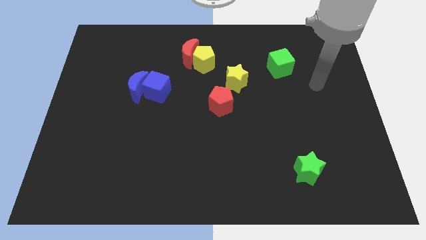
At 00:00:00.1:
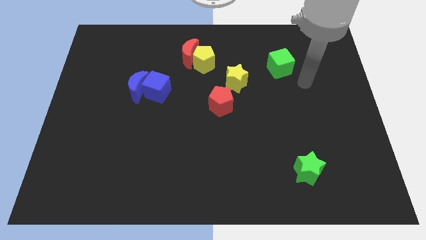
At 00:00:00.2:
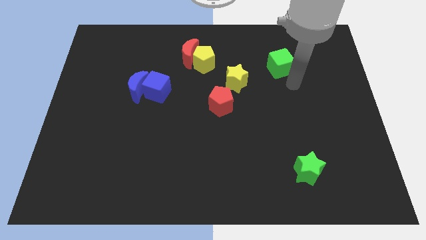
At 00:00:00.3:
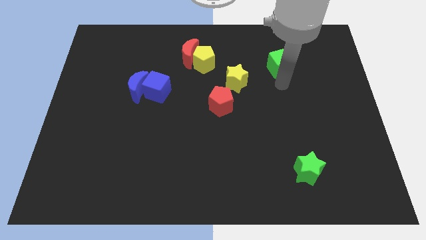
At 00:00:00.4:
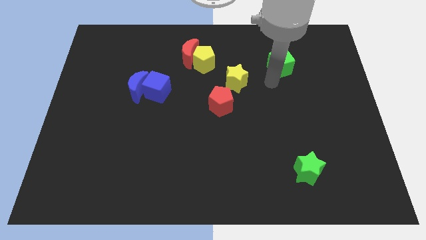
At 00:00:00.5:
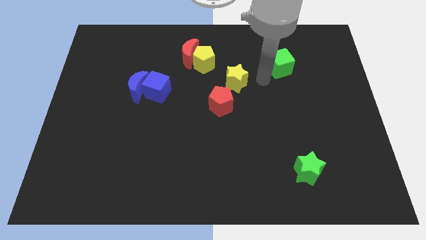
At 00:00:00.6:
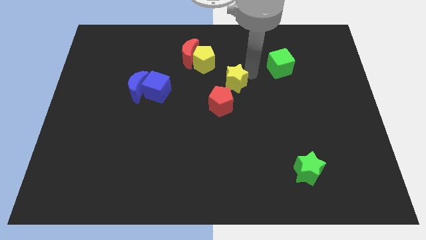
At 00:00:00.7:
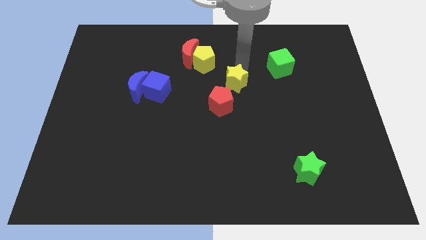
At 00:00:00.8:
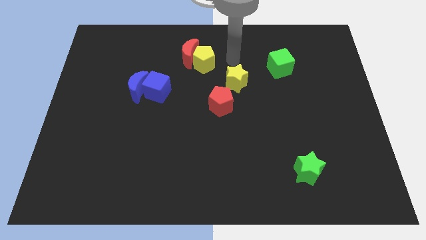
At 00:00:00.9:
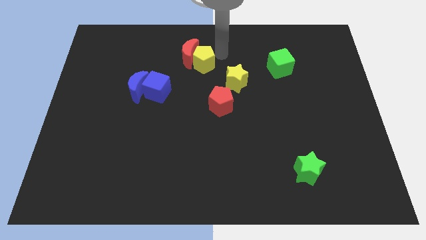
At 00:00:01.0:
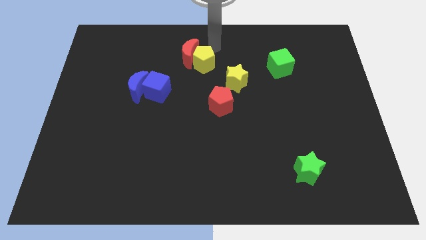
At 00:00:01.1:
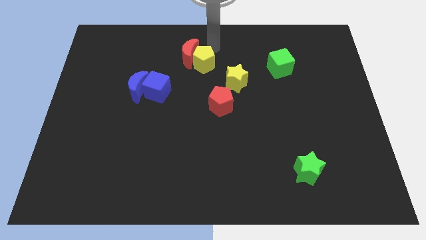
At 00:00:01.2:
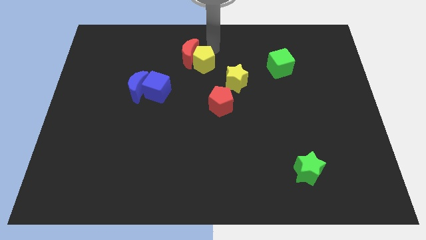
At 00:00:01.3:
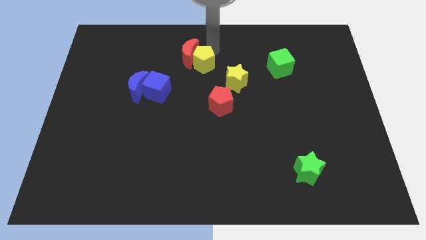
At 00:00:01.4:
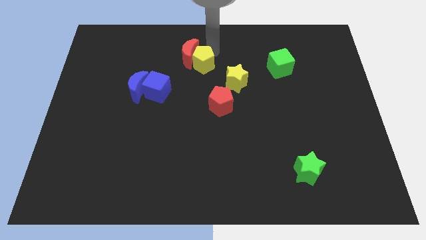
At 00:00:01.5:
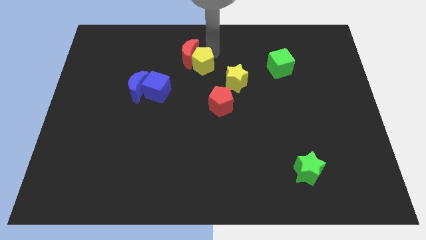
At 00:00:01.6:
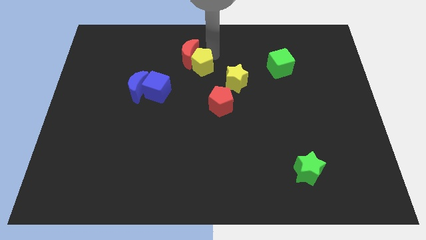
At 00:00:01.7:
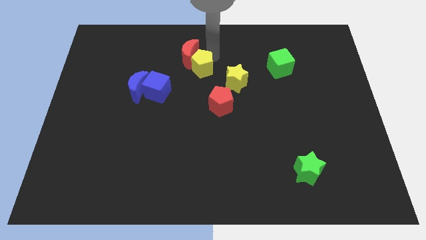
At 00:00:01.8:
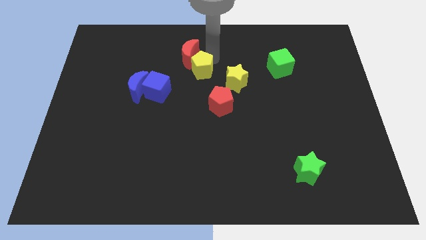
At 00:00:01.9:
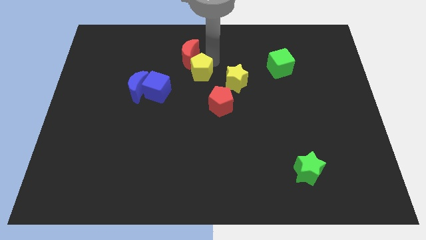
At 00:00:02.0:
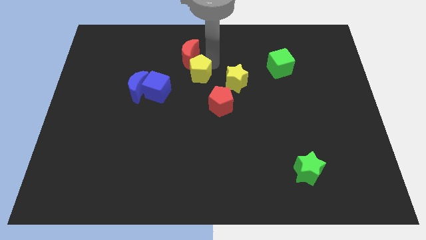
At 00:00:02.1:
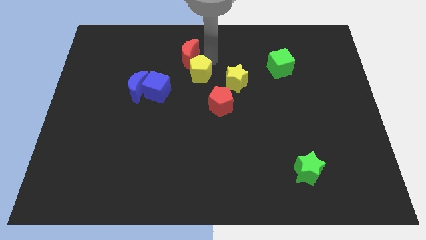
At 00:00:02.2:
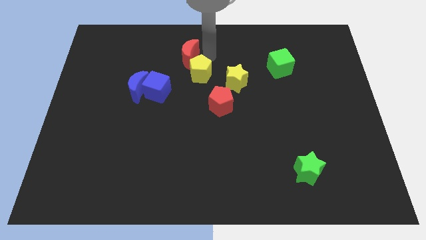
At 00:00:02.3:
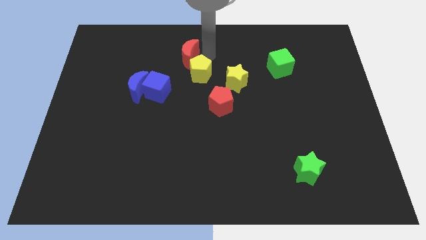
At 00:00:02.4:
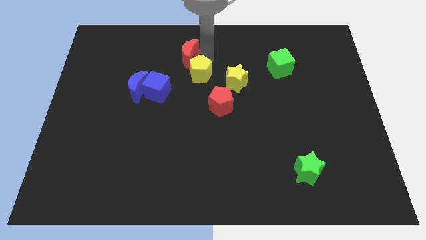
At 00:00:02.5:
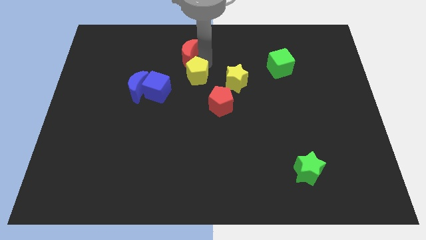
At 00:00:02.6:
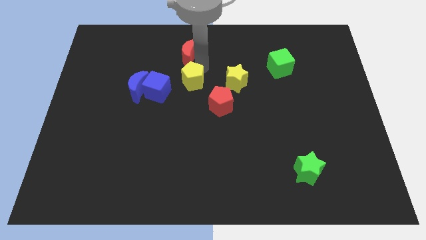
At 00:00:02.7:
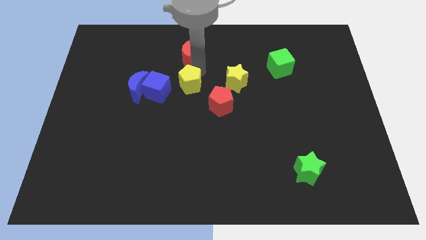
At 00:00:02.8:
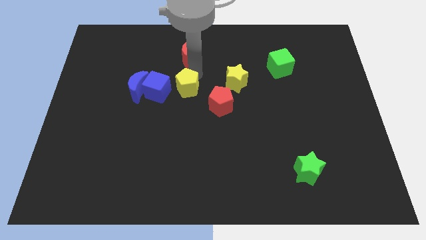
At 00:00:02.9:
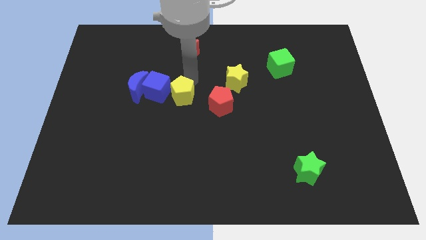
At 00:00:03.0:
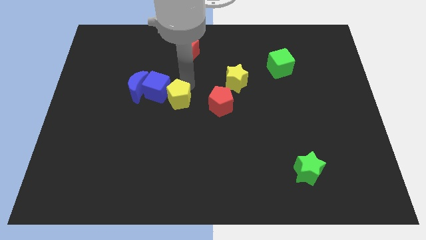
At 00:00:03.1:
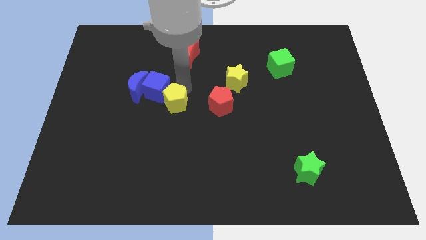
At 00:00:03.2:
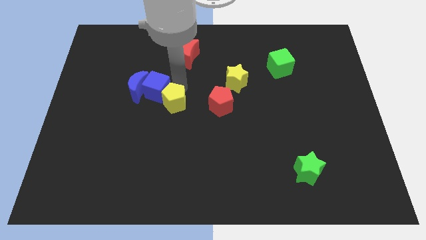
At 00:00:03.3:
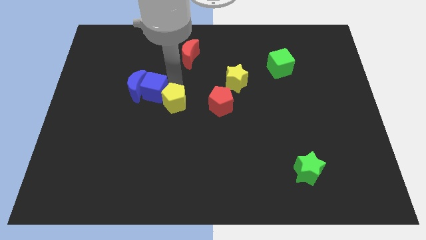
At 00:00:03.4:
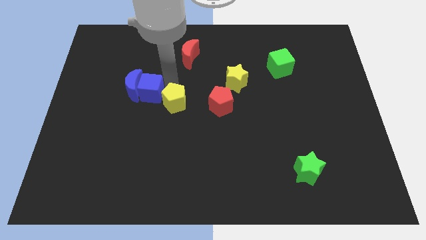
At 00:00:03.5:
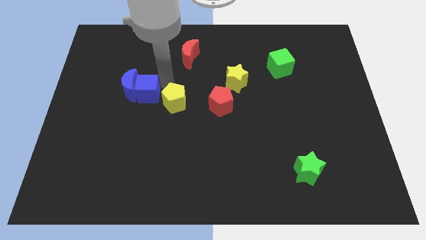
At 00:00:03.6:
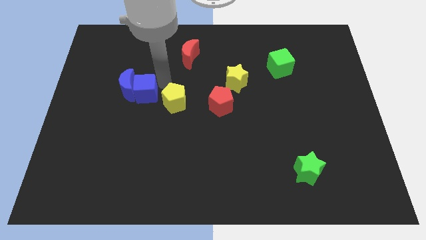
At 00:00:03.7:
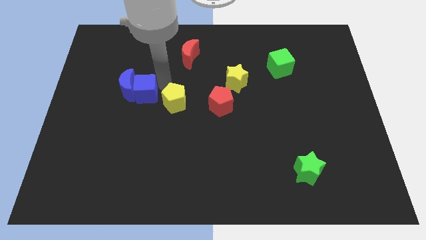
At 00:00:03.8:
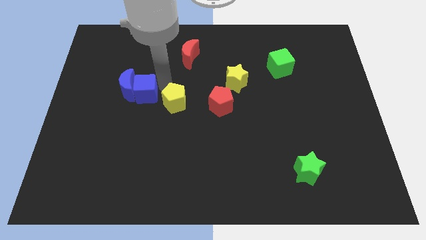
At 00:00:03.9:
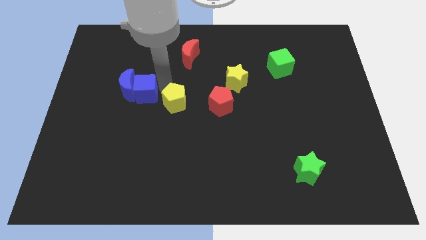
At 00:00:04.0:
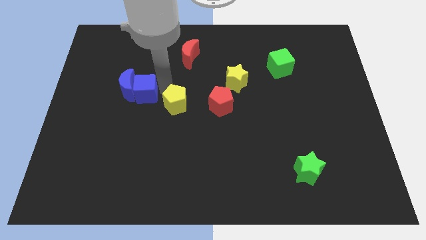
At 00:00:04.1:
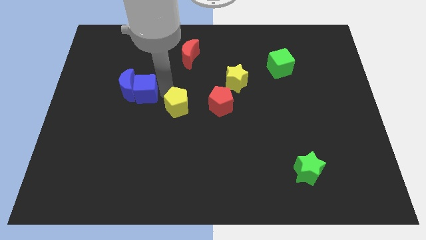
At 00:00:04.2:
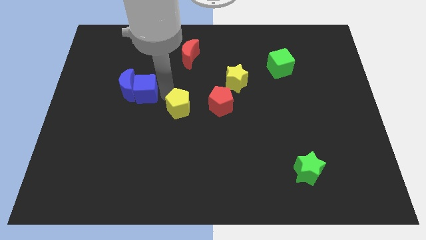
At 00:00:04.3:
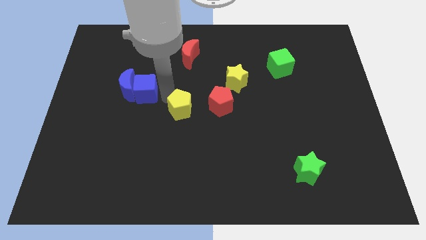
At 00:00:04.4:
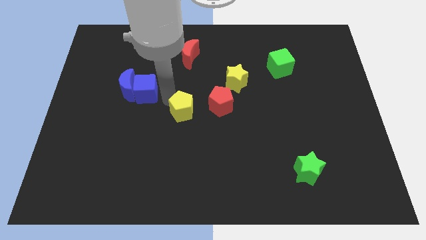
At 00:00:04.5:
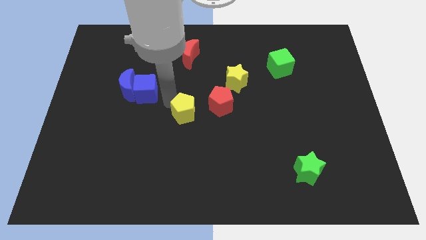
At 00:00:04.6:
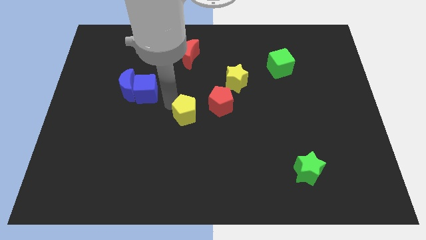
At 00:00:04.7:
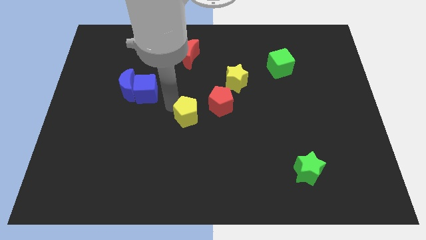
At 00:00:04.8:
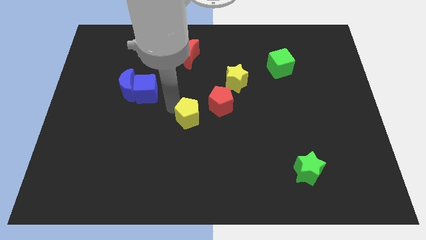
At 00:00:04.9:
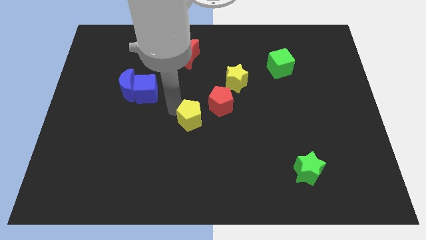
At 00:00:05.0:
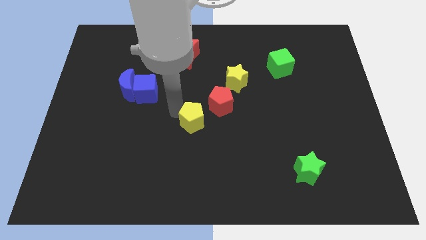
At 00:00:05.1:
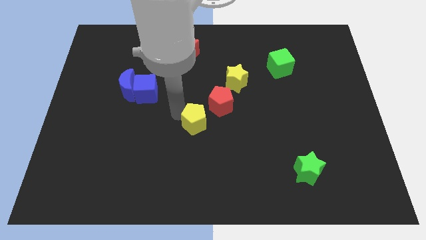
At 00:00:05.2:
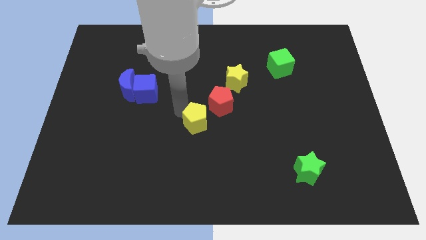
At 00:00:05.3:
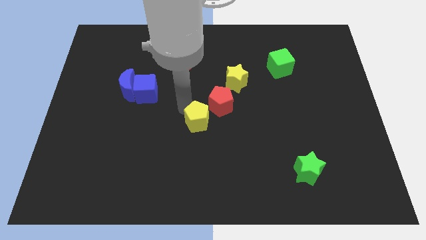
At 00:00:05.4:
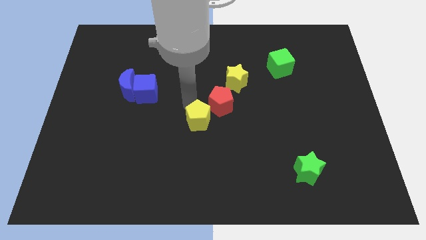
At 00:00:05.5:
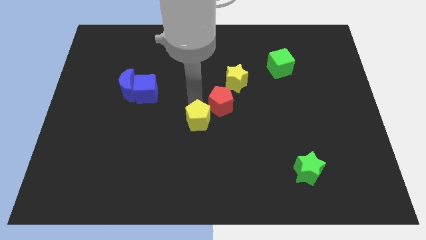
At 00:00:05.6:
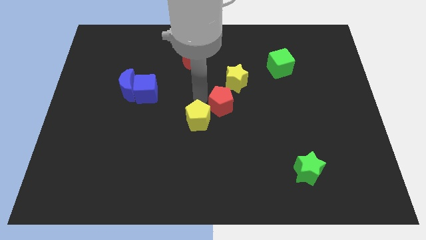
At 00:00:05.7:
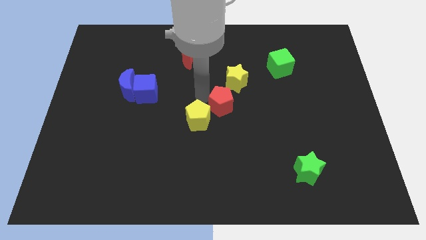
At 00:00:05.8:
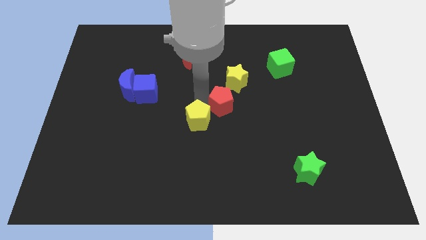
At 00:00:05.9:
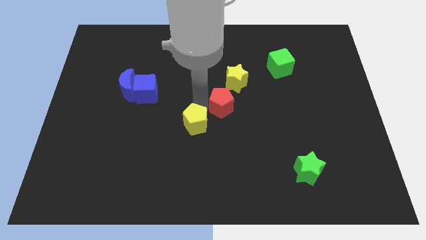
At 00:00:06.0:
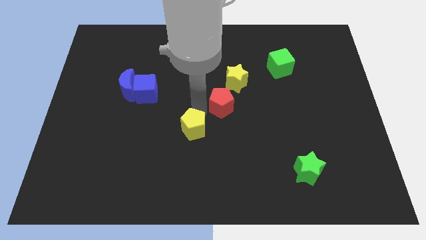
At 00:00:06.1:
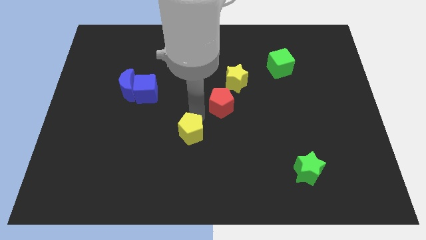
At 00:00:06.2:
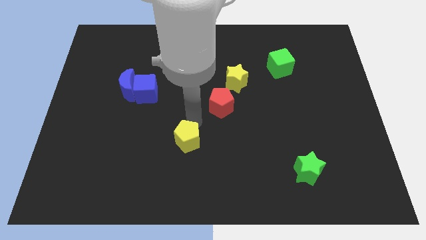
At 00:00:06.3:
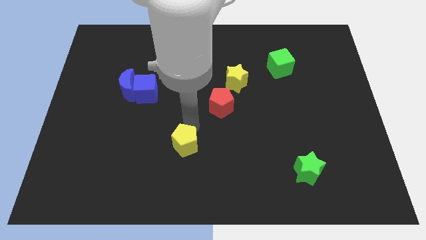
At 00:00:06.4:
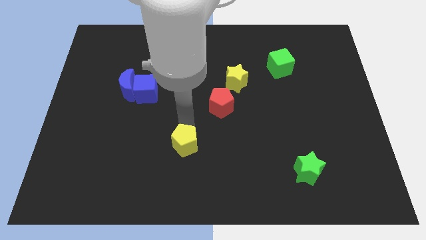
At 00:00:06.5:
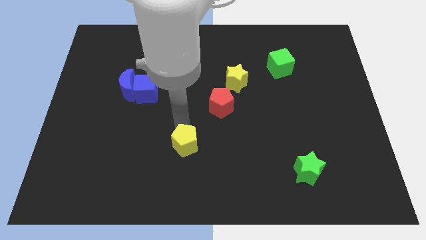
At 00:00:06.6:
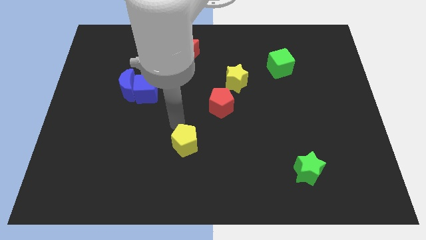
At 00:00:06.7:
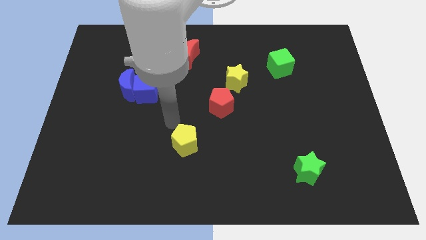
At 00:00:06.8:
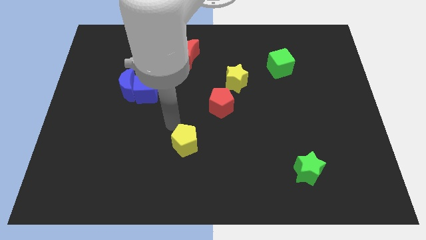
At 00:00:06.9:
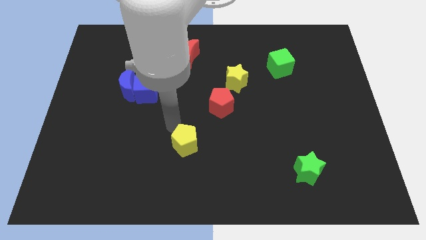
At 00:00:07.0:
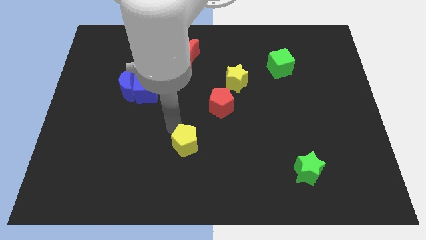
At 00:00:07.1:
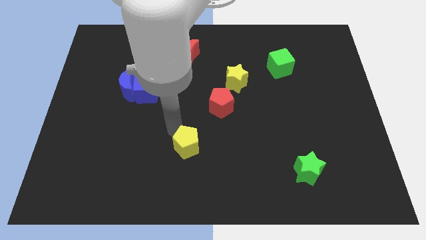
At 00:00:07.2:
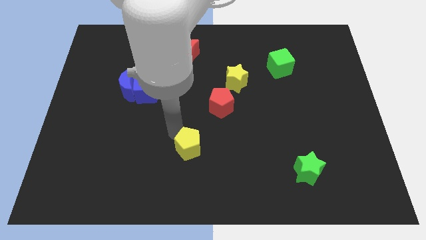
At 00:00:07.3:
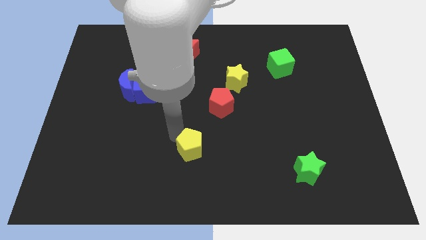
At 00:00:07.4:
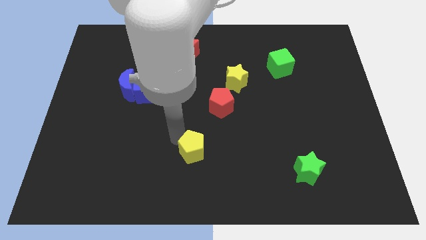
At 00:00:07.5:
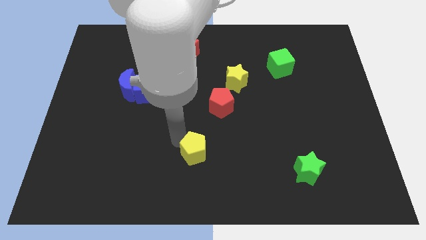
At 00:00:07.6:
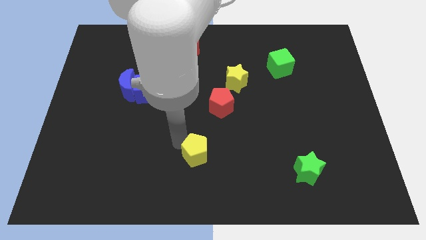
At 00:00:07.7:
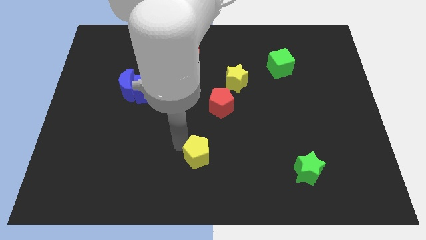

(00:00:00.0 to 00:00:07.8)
push the yellow pentagon to the bottom side
